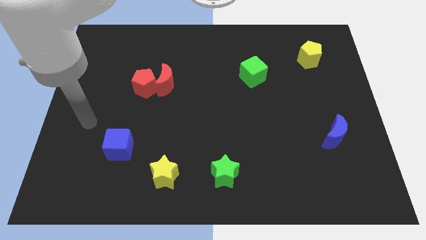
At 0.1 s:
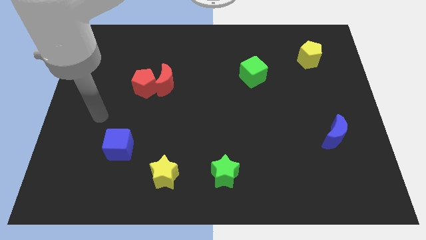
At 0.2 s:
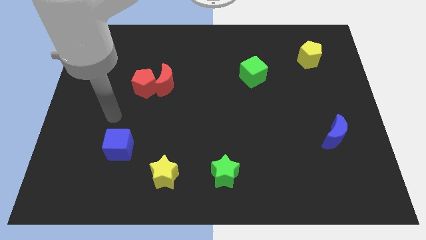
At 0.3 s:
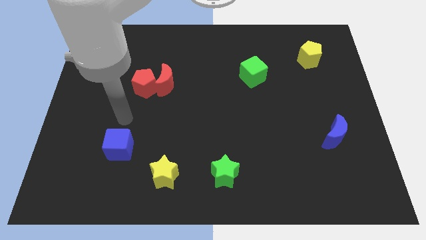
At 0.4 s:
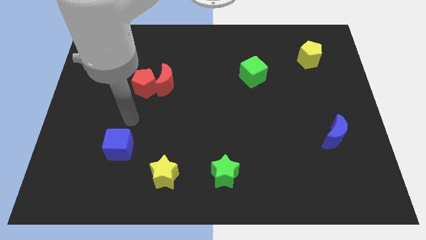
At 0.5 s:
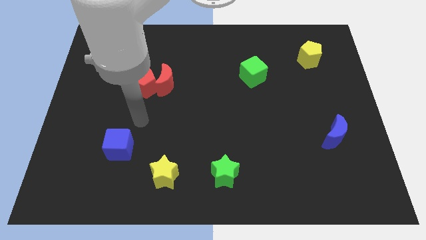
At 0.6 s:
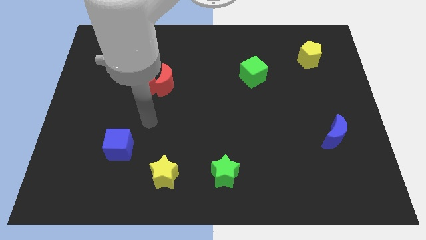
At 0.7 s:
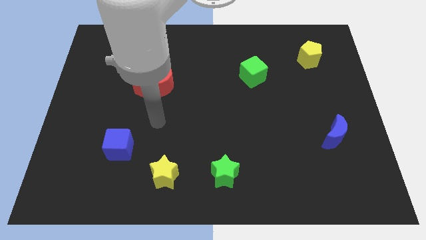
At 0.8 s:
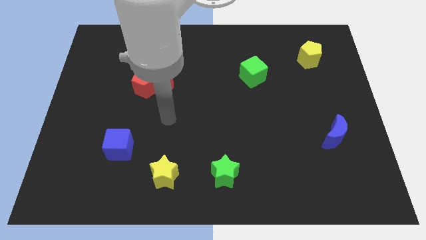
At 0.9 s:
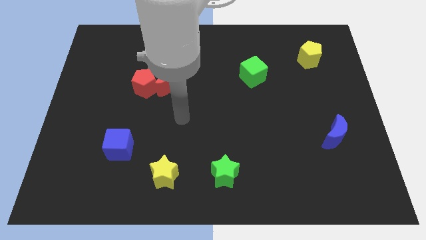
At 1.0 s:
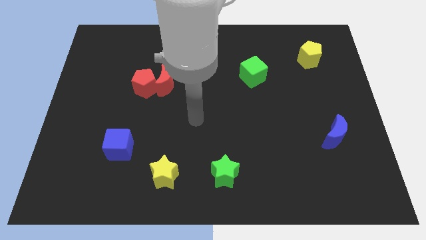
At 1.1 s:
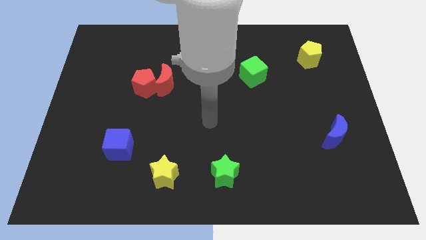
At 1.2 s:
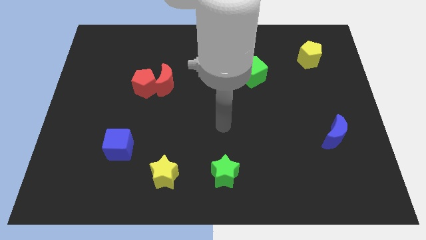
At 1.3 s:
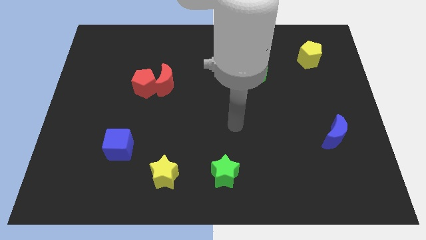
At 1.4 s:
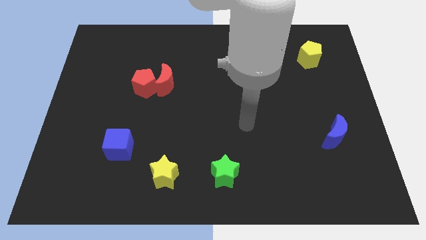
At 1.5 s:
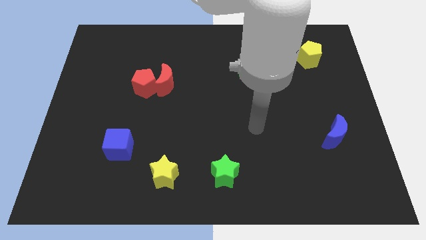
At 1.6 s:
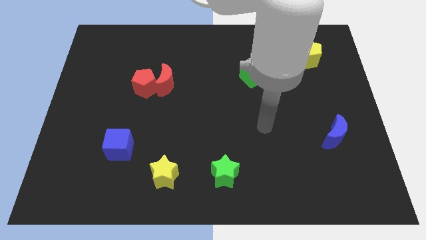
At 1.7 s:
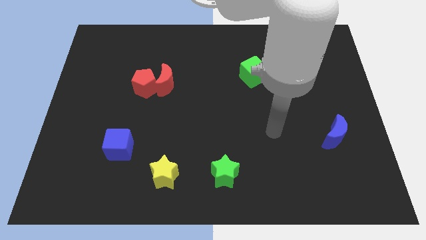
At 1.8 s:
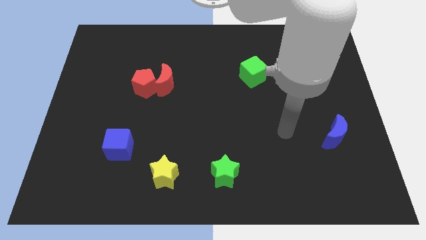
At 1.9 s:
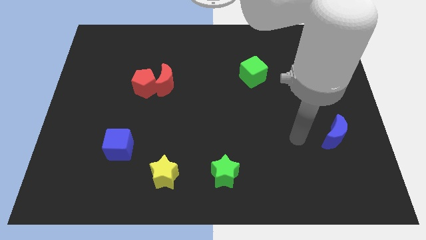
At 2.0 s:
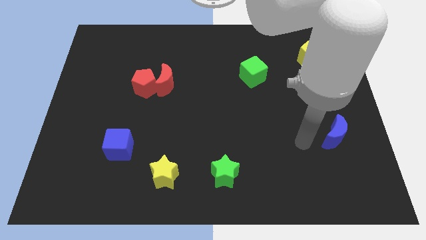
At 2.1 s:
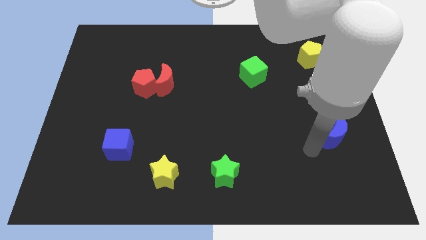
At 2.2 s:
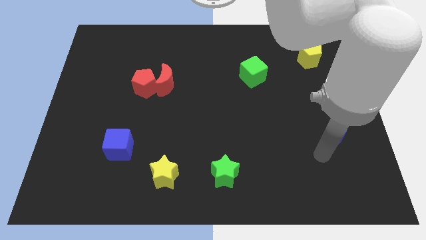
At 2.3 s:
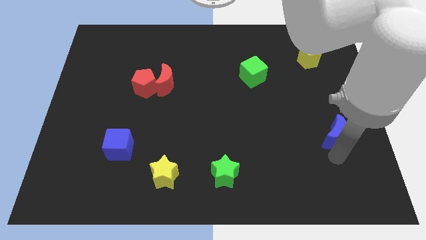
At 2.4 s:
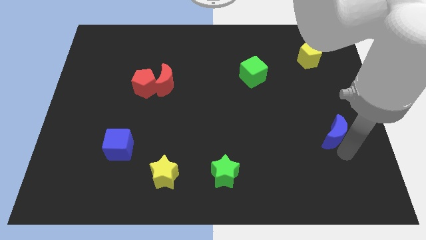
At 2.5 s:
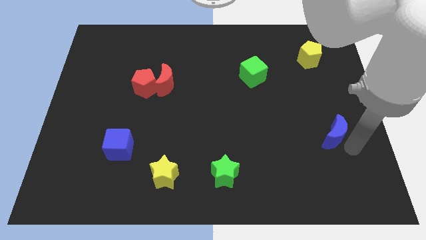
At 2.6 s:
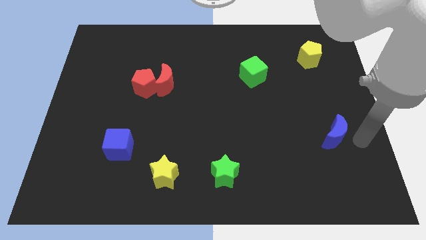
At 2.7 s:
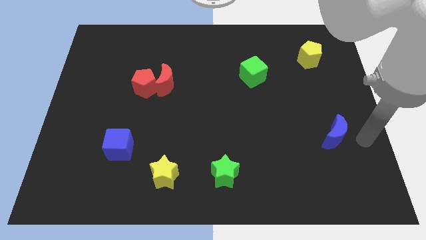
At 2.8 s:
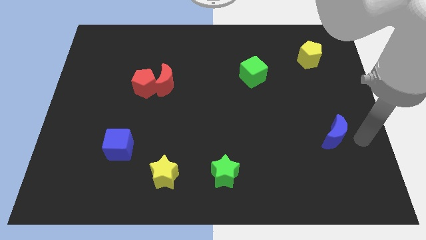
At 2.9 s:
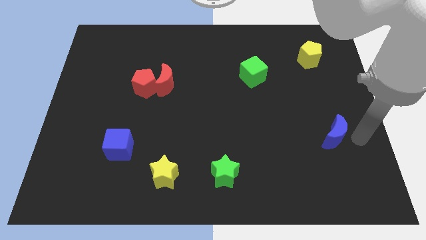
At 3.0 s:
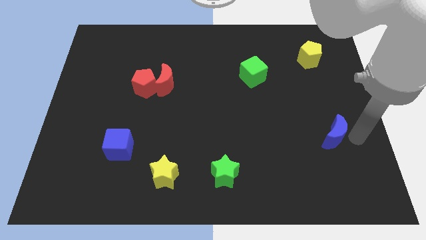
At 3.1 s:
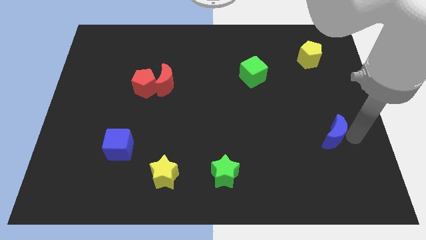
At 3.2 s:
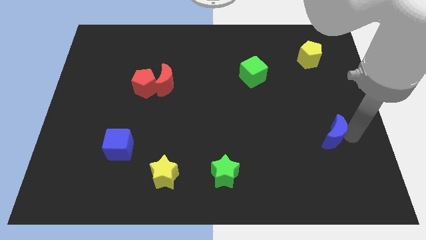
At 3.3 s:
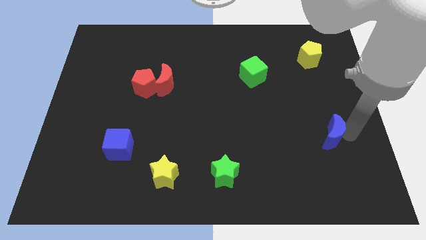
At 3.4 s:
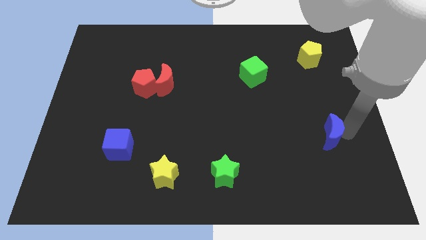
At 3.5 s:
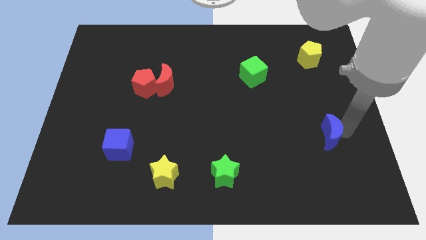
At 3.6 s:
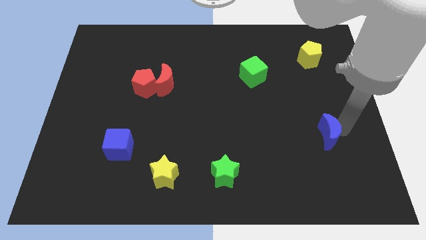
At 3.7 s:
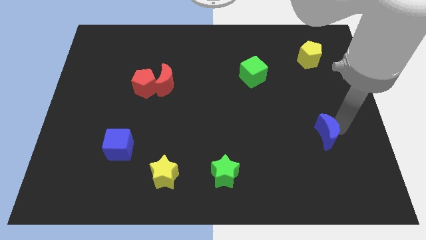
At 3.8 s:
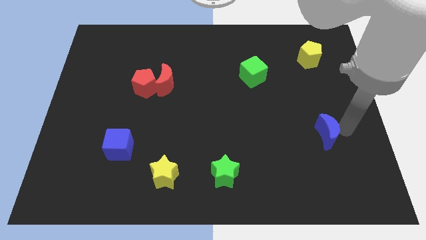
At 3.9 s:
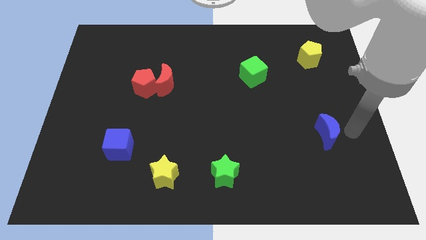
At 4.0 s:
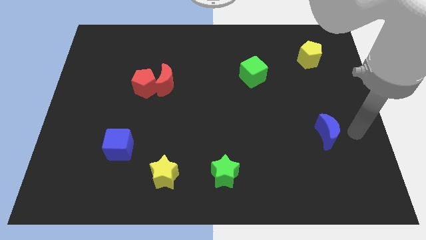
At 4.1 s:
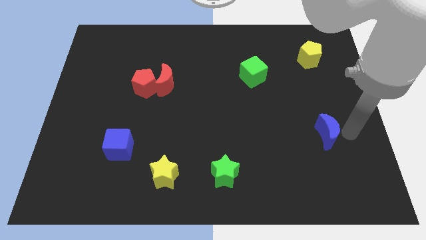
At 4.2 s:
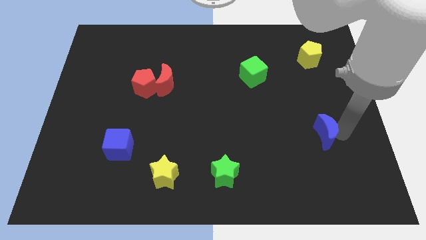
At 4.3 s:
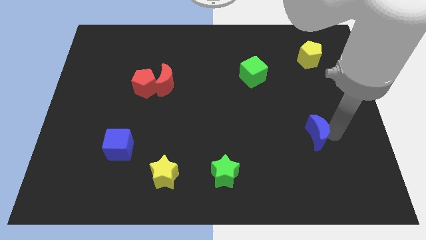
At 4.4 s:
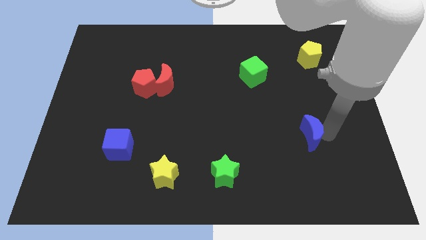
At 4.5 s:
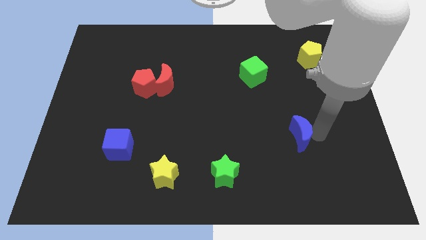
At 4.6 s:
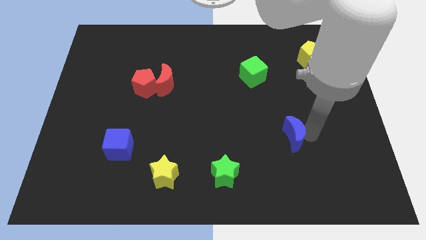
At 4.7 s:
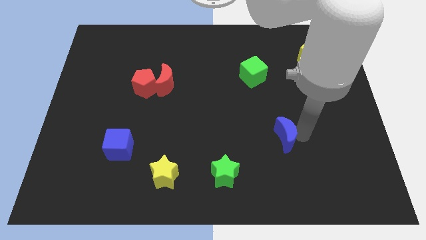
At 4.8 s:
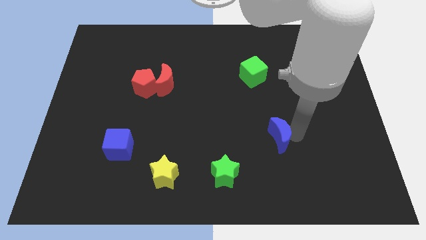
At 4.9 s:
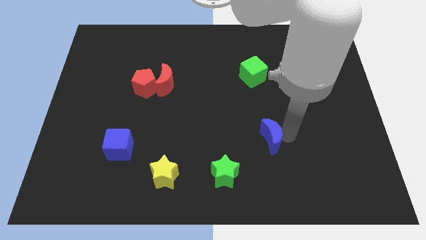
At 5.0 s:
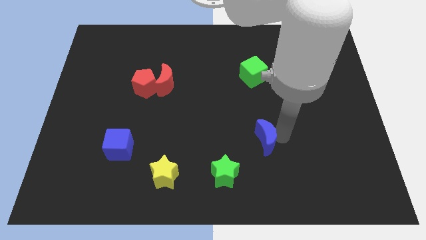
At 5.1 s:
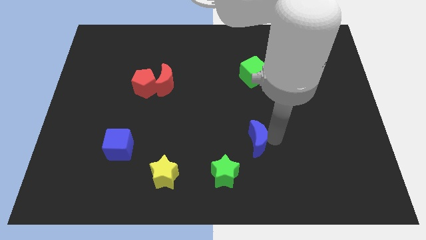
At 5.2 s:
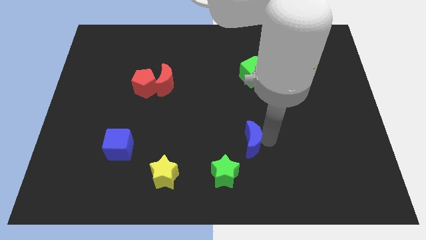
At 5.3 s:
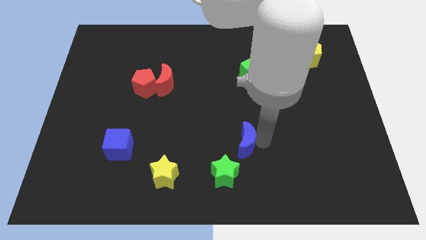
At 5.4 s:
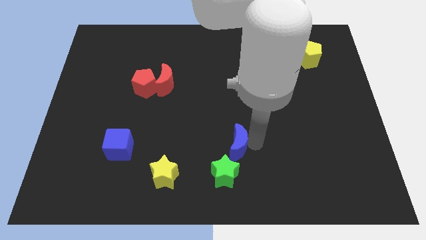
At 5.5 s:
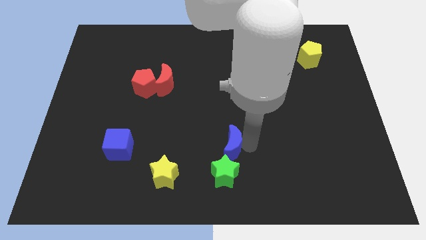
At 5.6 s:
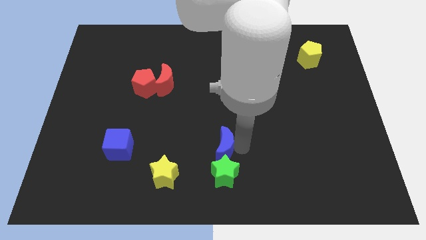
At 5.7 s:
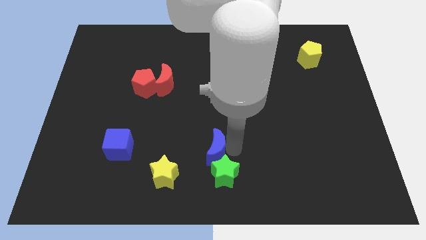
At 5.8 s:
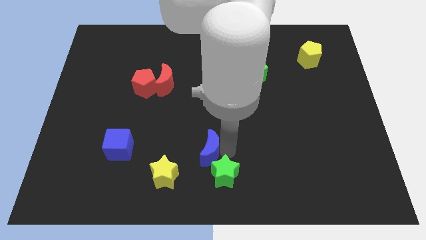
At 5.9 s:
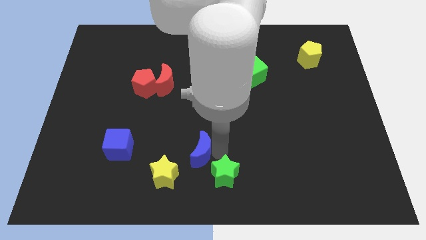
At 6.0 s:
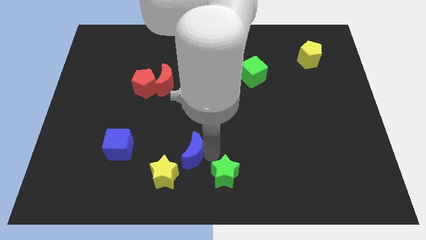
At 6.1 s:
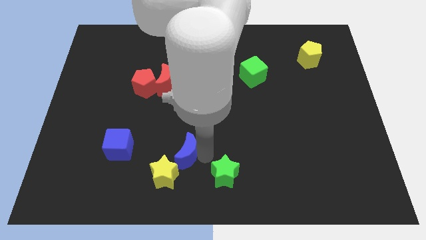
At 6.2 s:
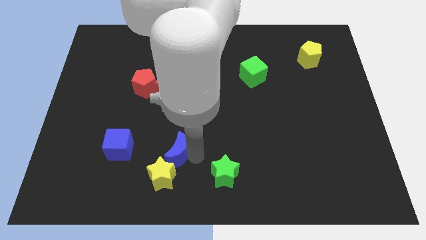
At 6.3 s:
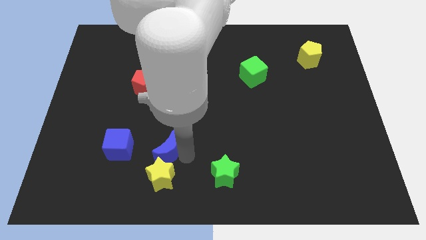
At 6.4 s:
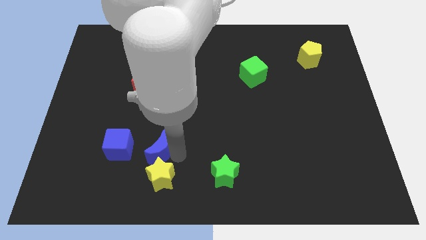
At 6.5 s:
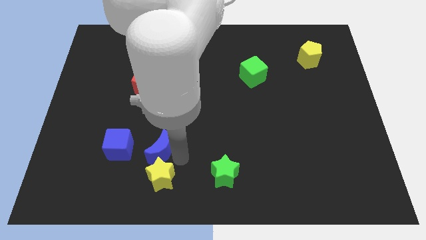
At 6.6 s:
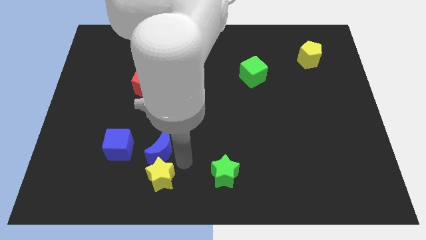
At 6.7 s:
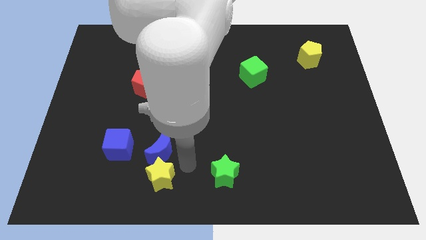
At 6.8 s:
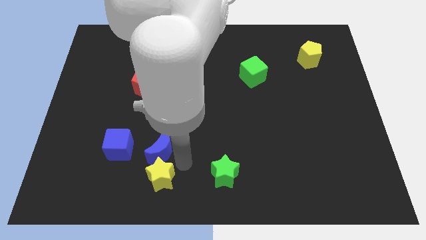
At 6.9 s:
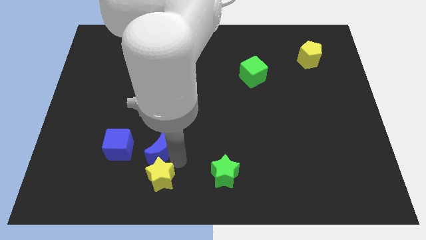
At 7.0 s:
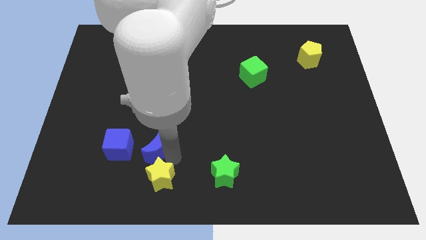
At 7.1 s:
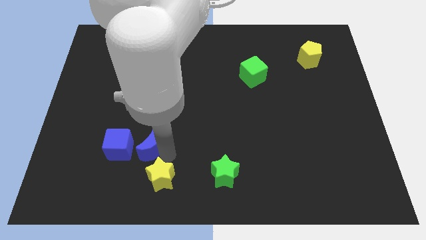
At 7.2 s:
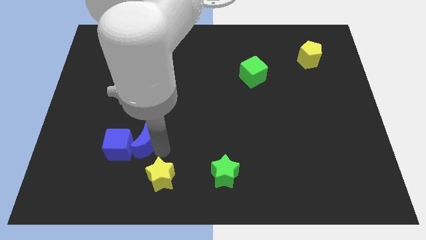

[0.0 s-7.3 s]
slide the blue moon close to the blue cube
